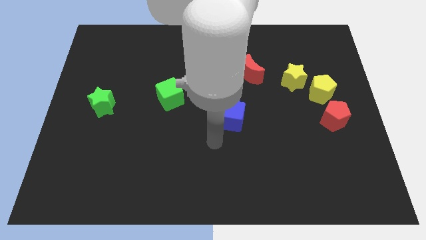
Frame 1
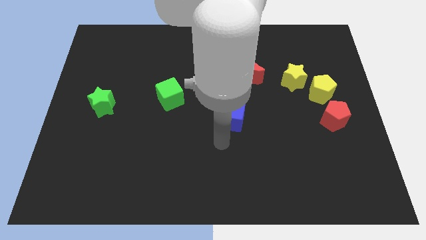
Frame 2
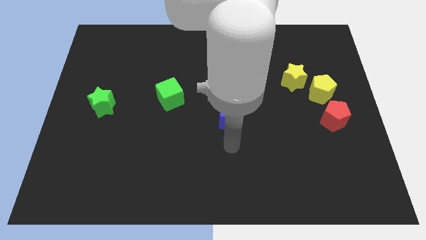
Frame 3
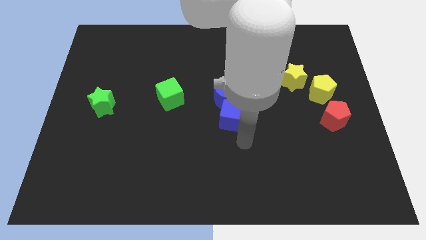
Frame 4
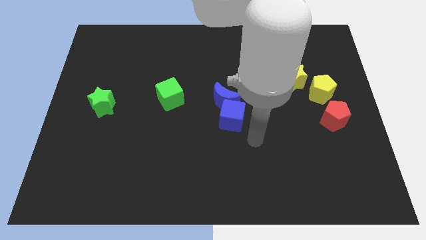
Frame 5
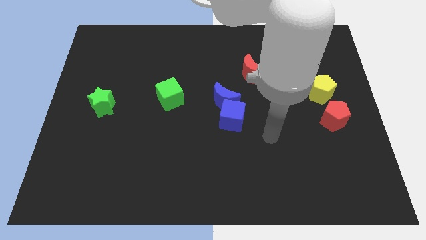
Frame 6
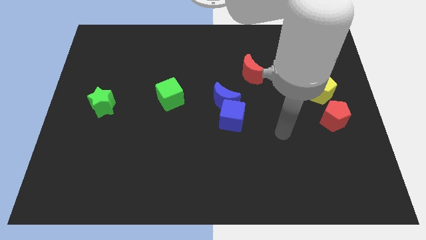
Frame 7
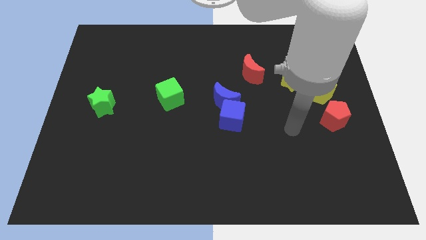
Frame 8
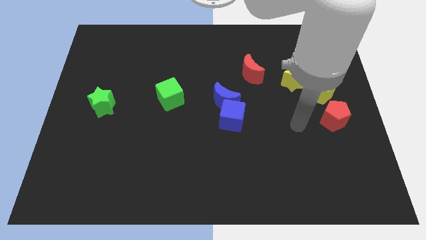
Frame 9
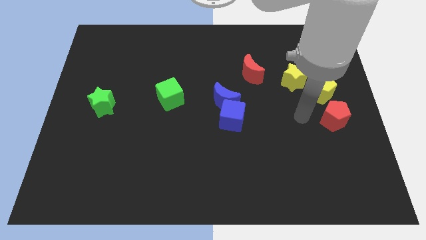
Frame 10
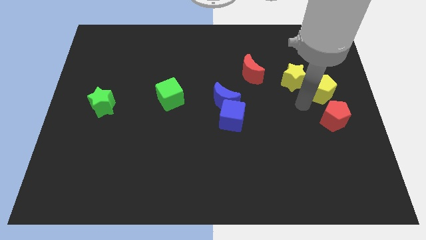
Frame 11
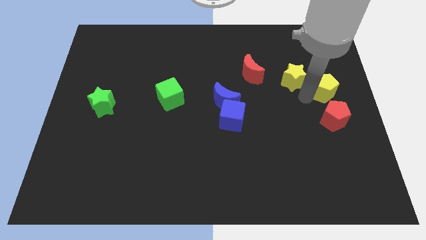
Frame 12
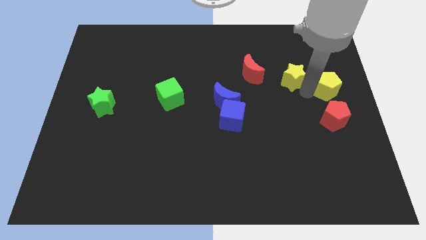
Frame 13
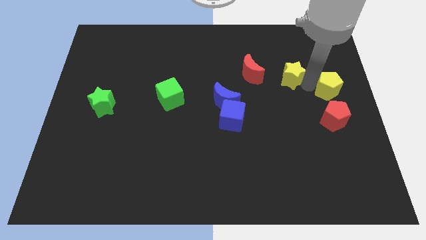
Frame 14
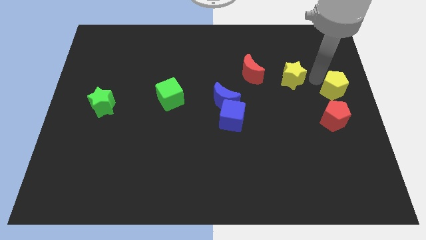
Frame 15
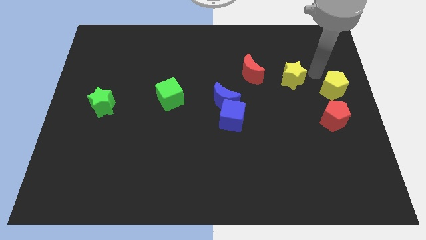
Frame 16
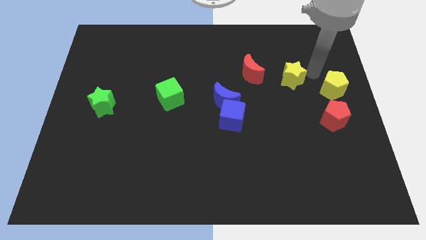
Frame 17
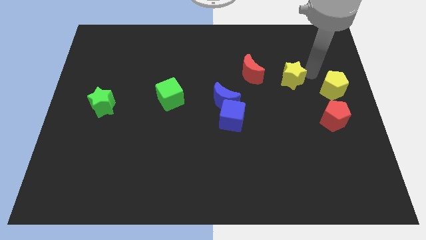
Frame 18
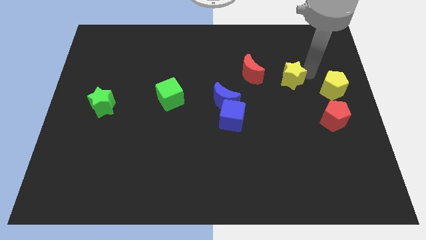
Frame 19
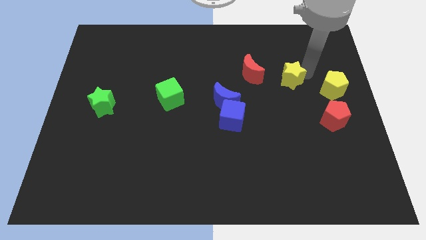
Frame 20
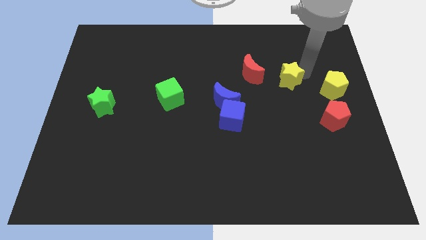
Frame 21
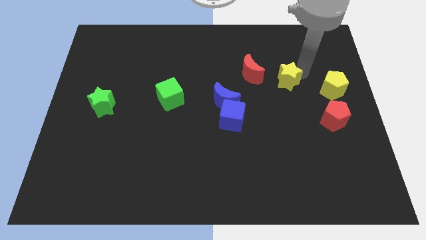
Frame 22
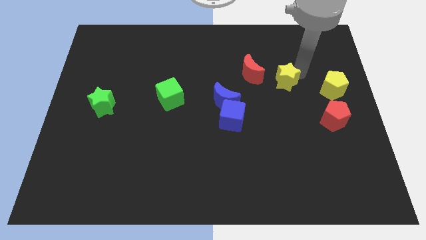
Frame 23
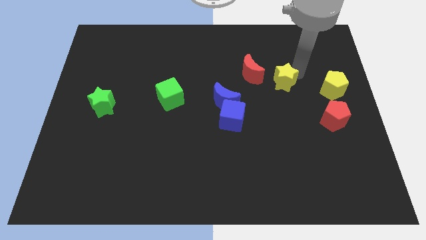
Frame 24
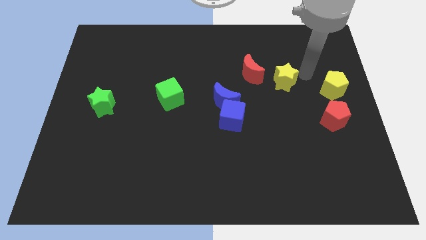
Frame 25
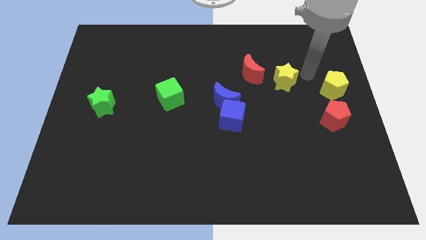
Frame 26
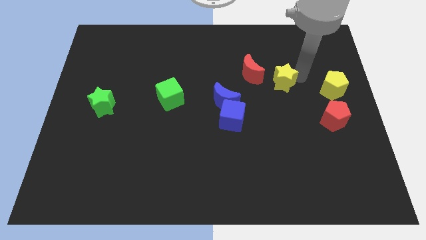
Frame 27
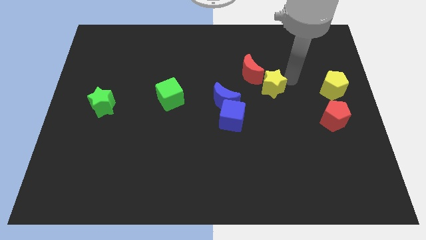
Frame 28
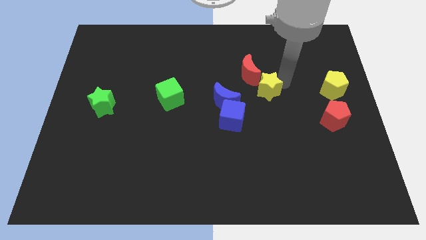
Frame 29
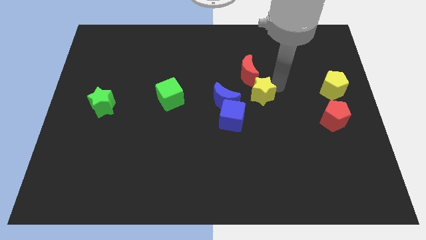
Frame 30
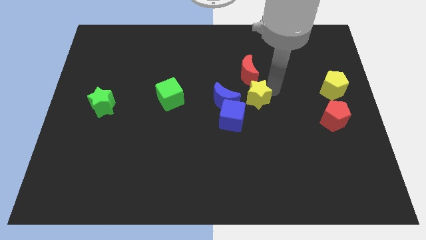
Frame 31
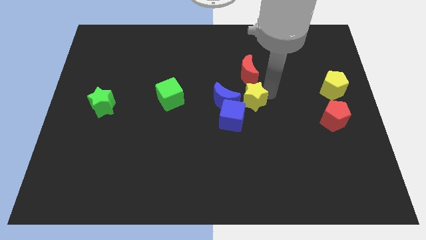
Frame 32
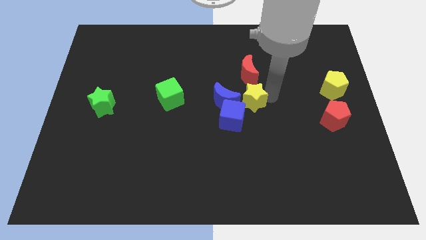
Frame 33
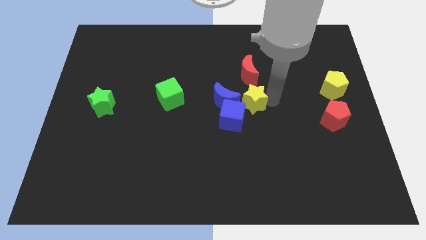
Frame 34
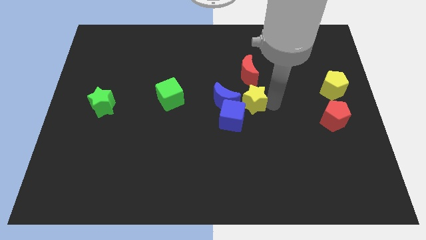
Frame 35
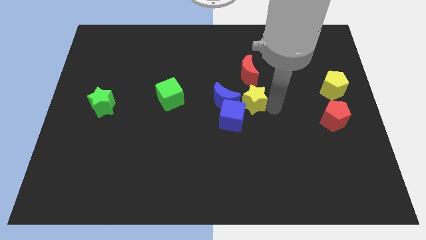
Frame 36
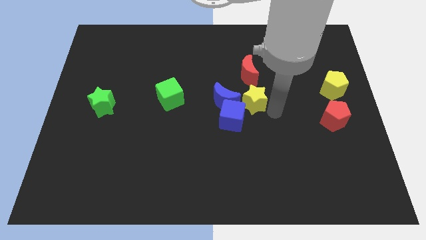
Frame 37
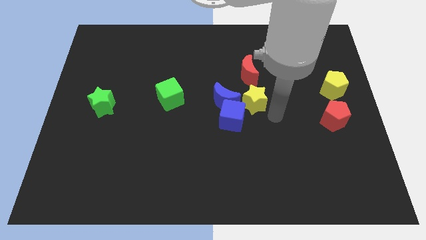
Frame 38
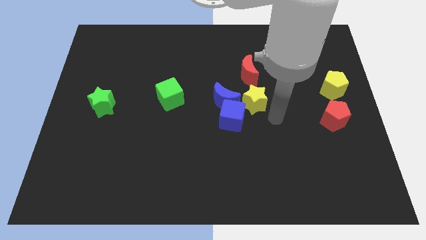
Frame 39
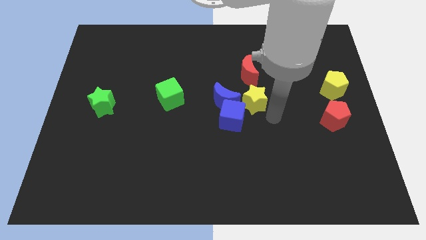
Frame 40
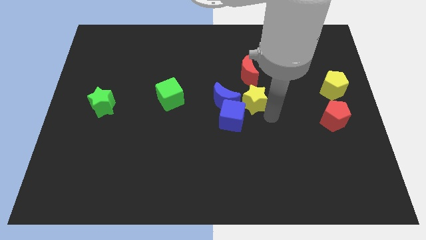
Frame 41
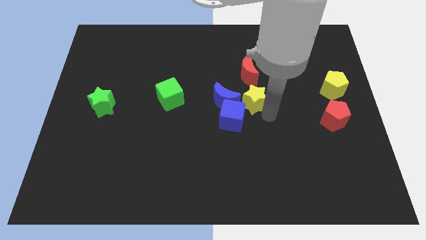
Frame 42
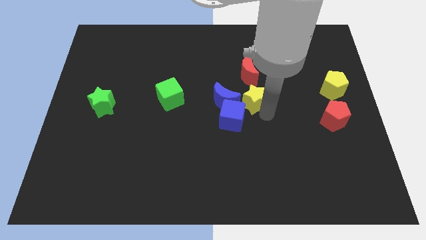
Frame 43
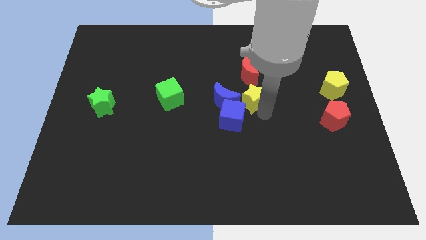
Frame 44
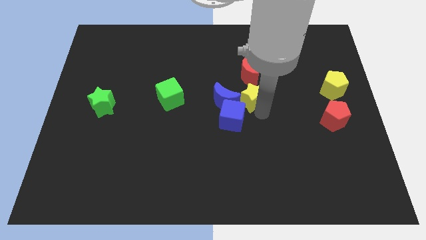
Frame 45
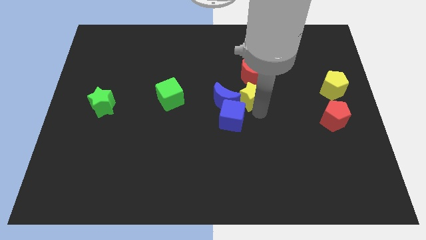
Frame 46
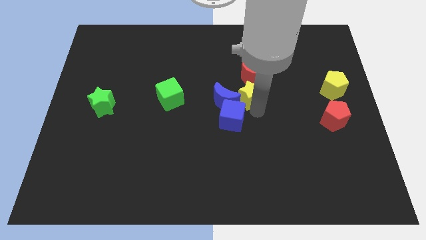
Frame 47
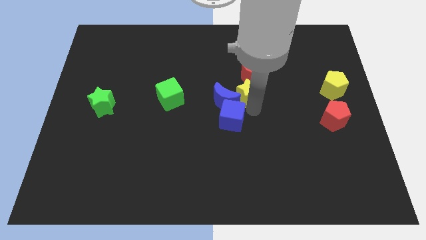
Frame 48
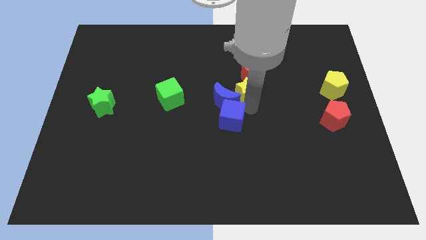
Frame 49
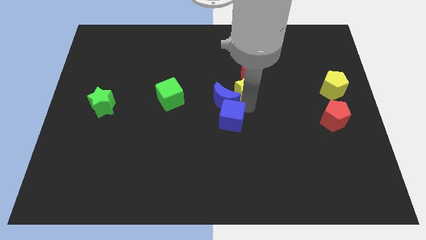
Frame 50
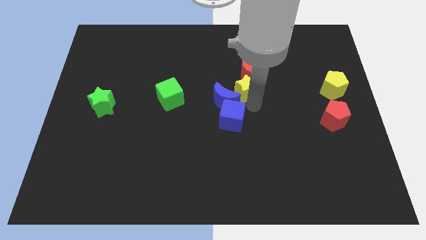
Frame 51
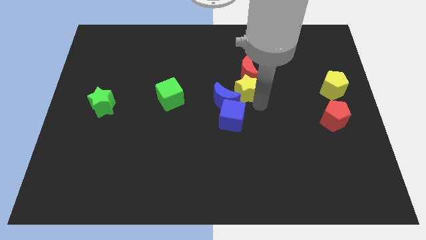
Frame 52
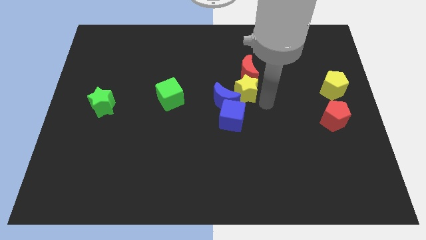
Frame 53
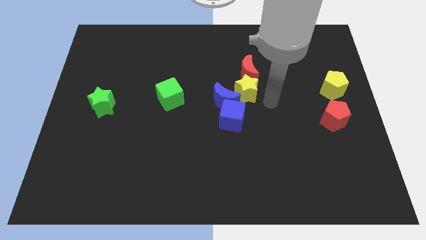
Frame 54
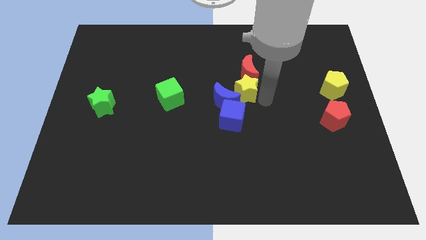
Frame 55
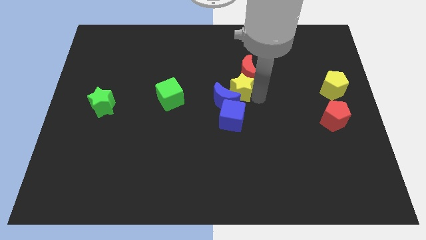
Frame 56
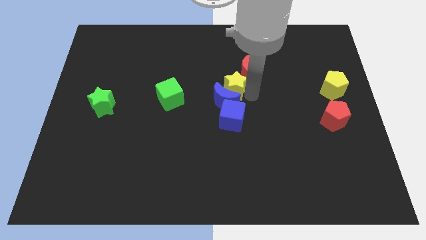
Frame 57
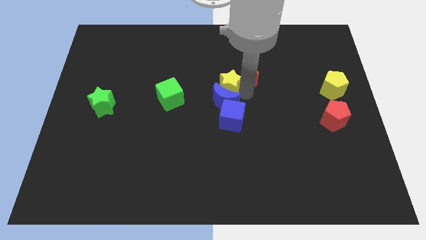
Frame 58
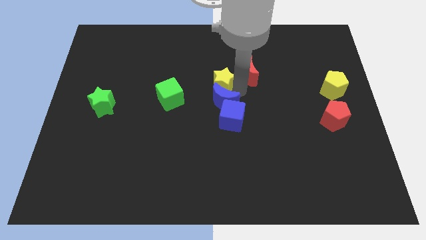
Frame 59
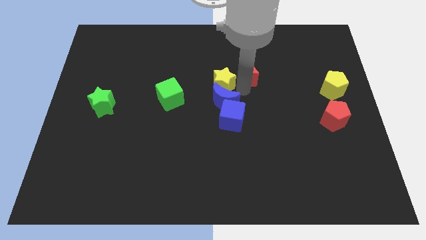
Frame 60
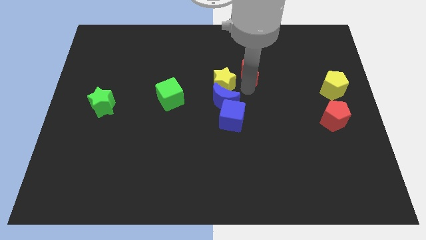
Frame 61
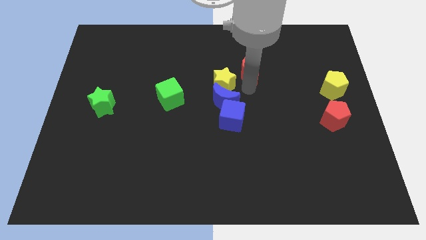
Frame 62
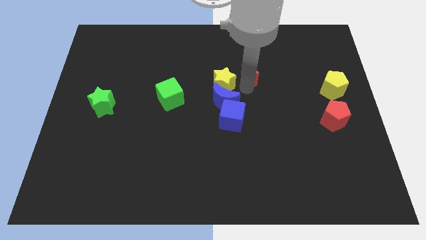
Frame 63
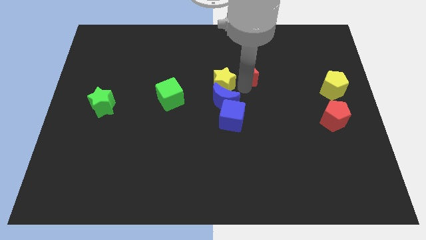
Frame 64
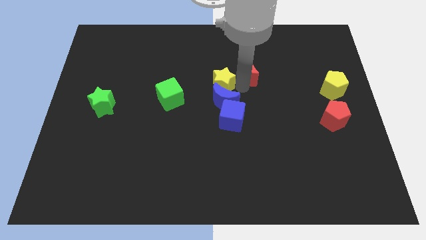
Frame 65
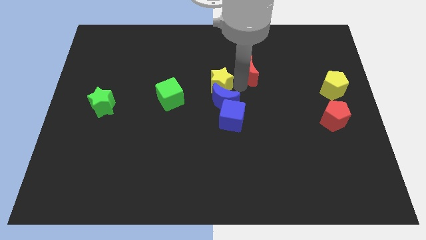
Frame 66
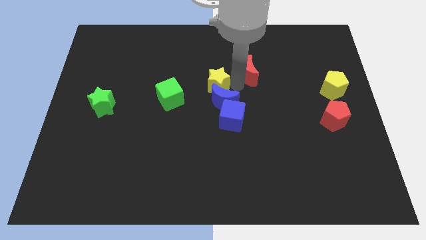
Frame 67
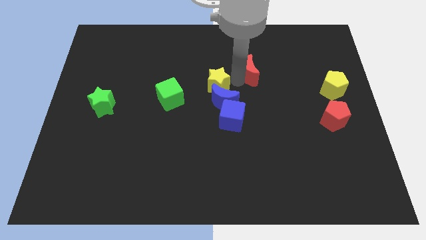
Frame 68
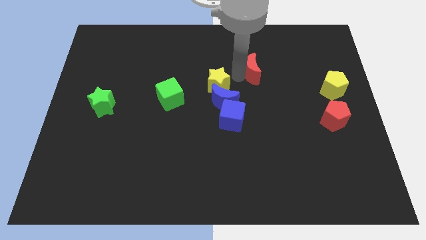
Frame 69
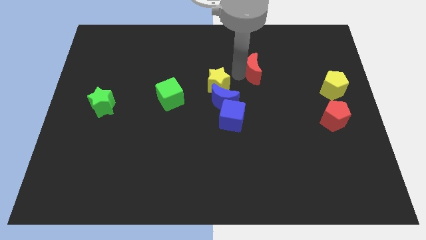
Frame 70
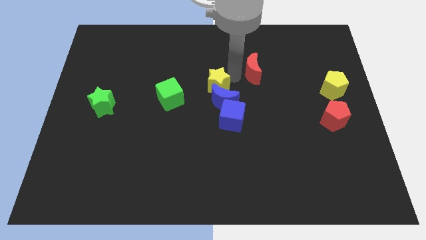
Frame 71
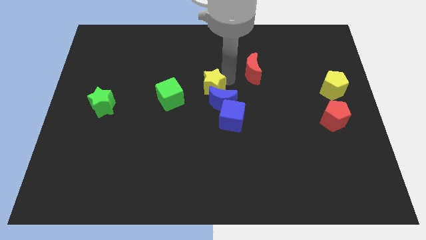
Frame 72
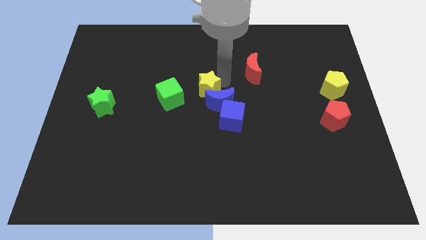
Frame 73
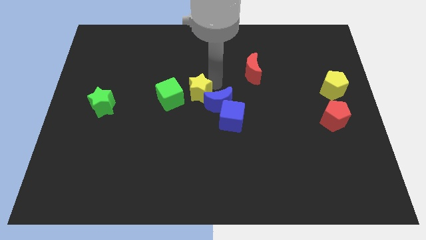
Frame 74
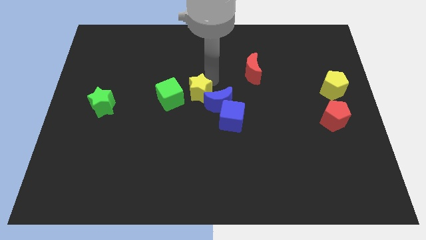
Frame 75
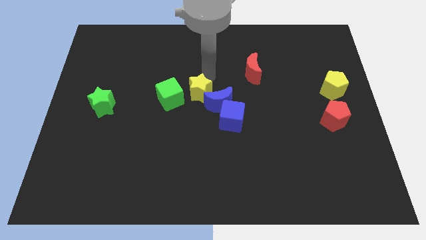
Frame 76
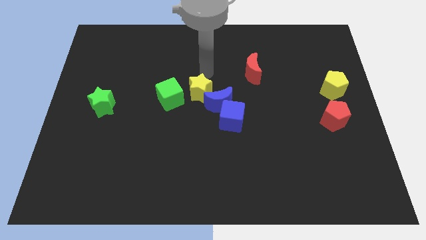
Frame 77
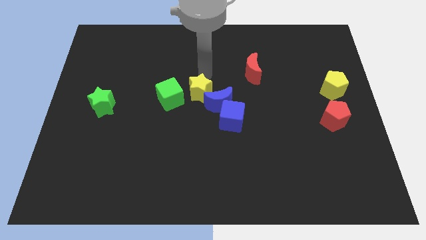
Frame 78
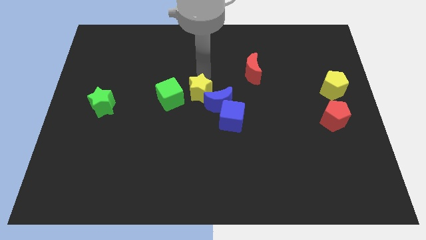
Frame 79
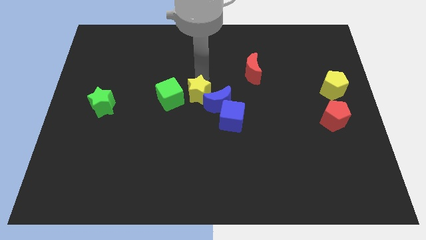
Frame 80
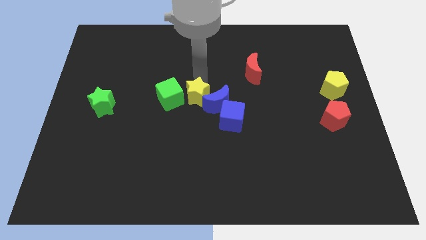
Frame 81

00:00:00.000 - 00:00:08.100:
push the yellow star to the bottom right side of the green cube

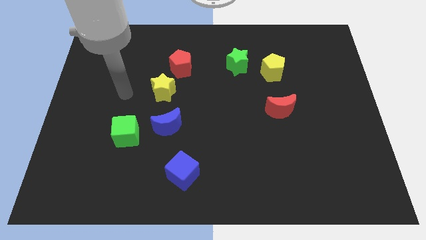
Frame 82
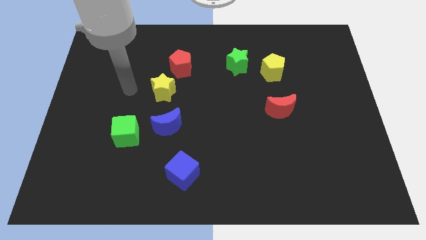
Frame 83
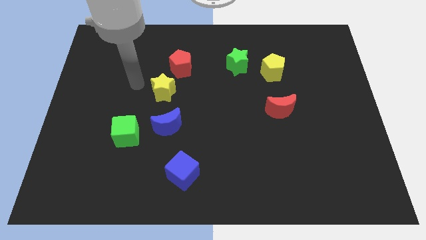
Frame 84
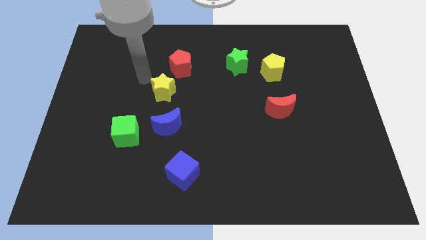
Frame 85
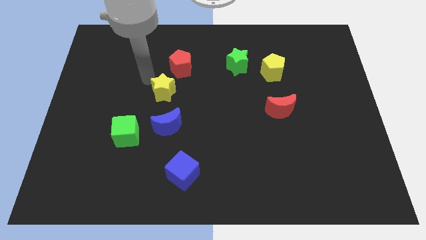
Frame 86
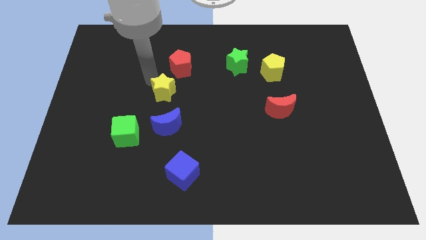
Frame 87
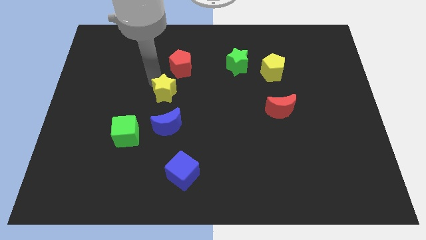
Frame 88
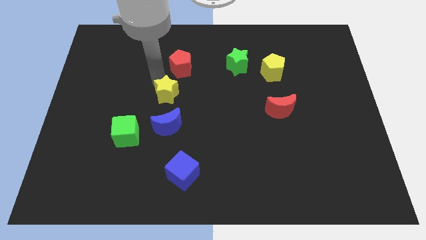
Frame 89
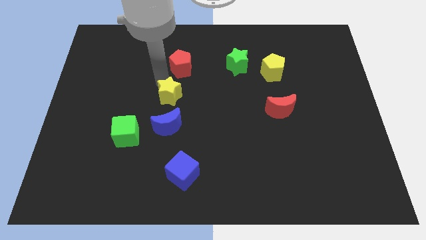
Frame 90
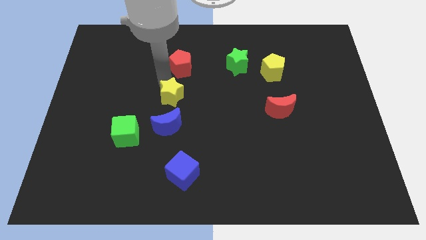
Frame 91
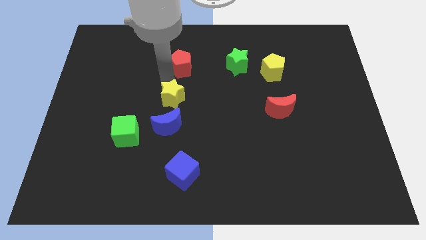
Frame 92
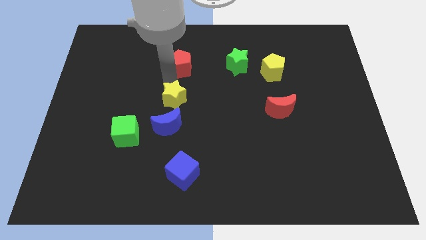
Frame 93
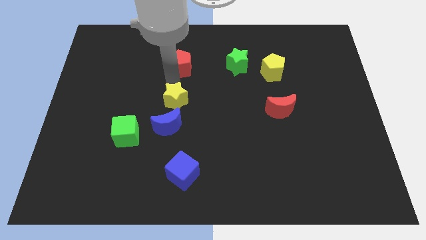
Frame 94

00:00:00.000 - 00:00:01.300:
push the yellow star to the top right side of the blue moon
